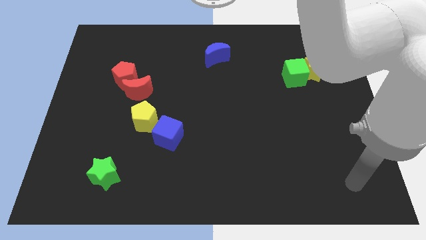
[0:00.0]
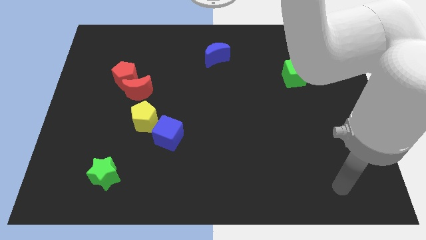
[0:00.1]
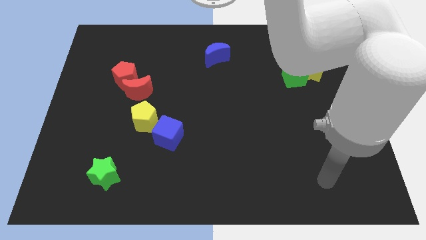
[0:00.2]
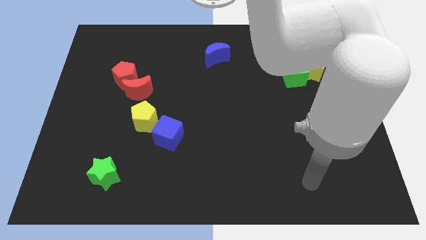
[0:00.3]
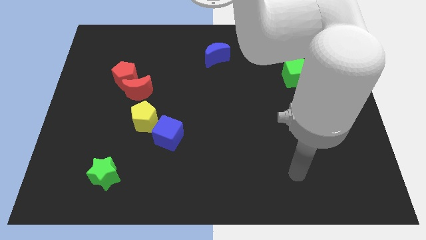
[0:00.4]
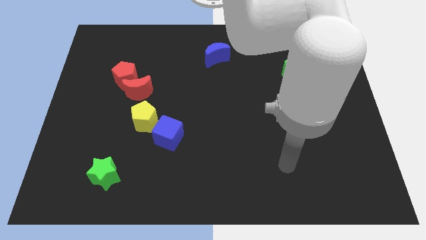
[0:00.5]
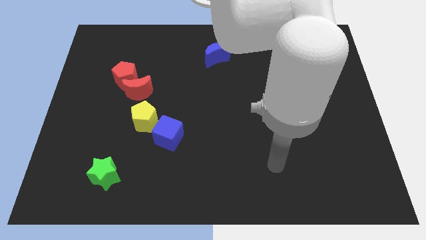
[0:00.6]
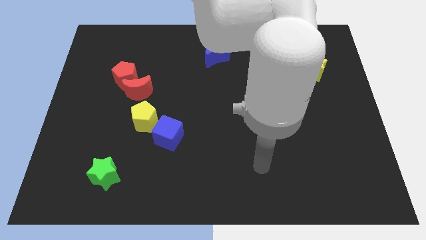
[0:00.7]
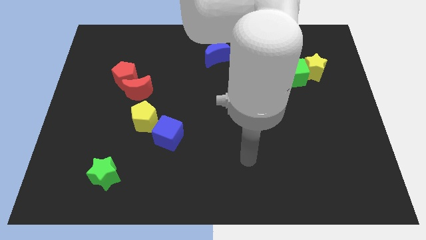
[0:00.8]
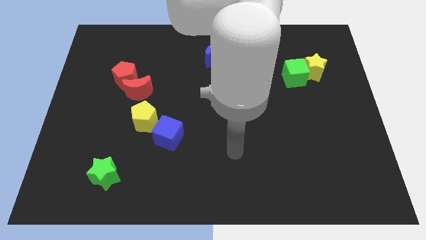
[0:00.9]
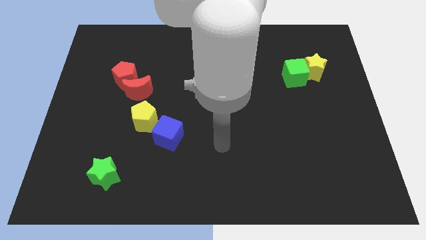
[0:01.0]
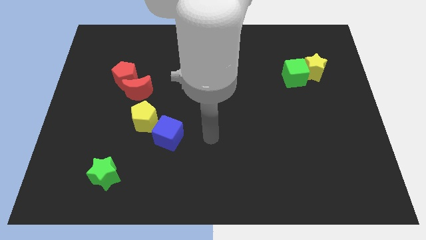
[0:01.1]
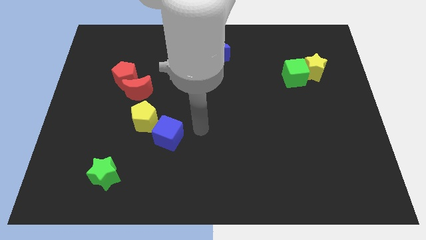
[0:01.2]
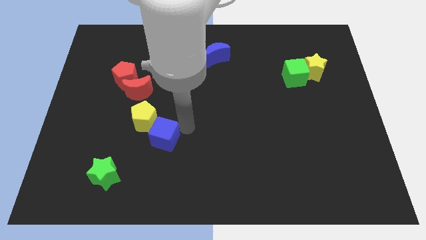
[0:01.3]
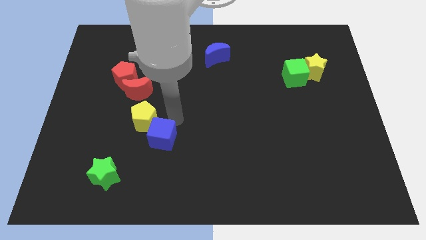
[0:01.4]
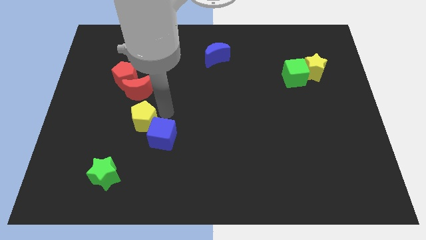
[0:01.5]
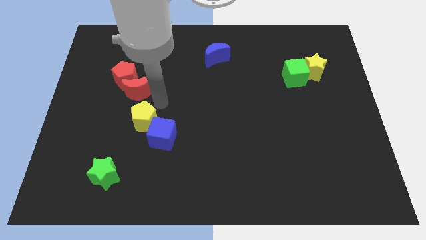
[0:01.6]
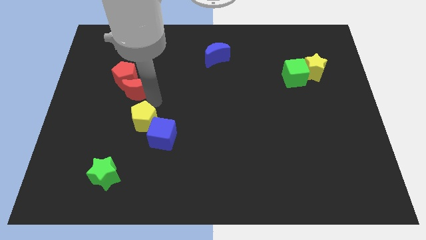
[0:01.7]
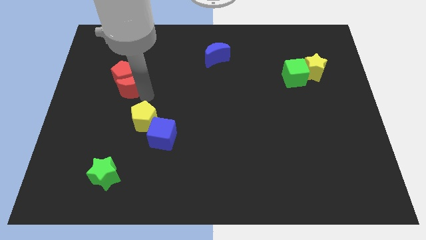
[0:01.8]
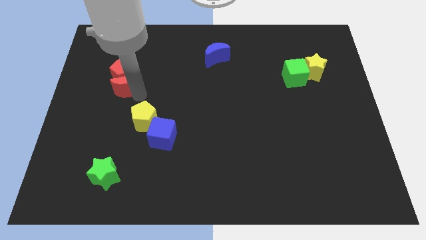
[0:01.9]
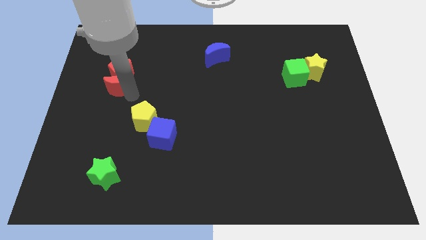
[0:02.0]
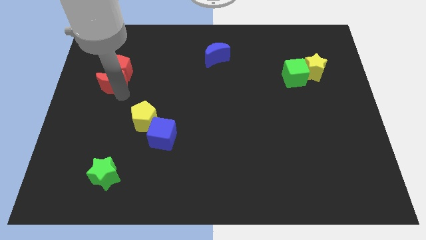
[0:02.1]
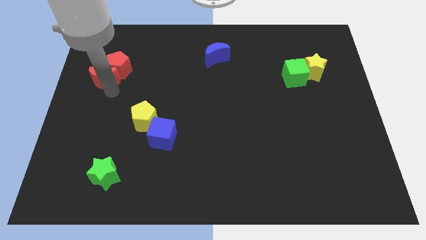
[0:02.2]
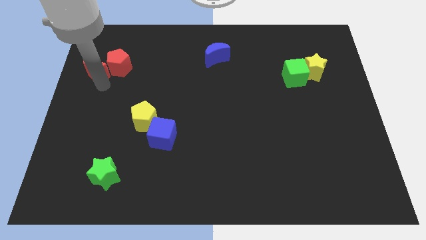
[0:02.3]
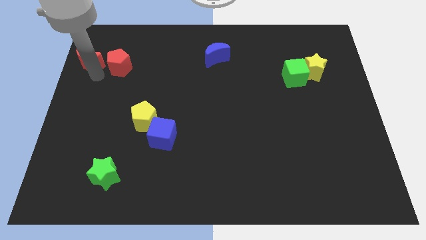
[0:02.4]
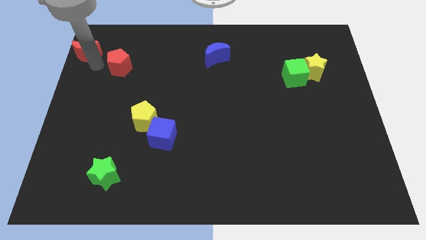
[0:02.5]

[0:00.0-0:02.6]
pull the red pentagon apart from the red moon

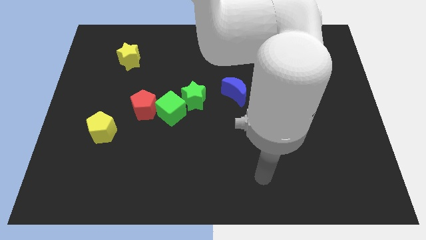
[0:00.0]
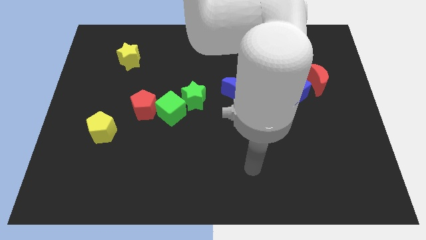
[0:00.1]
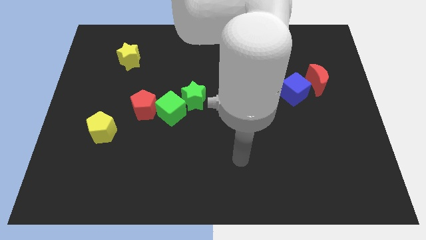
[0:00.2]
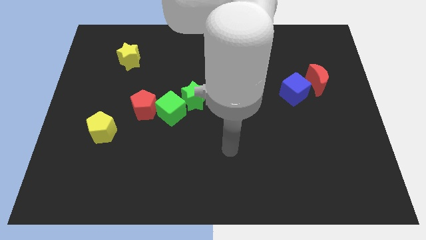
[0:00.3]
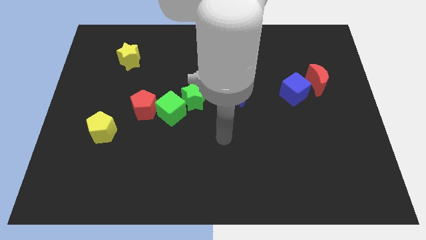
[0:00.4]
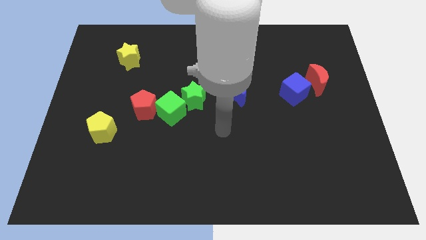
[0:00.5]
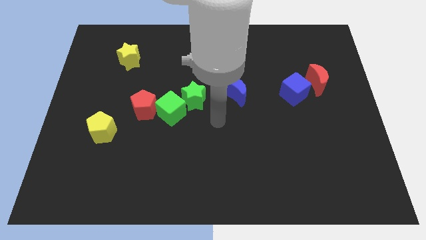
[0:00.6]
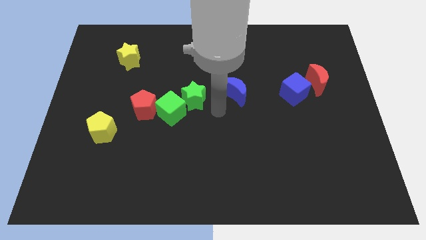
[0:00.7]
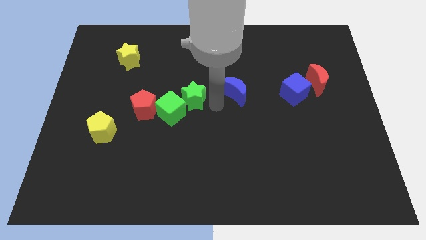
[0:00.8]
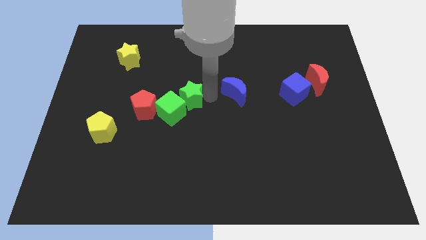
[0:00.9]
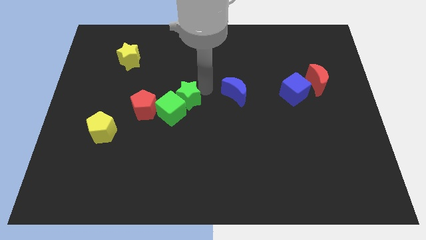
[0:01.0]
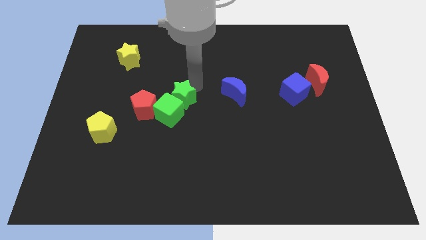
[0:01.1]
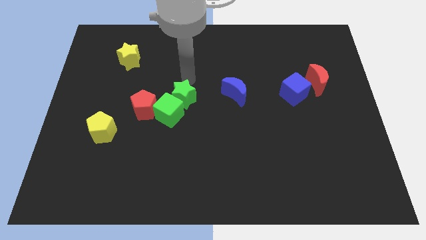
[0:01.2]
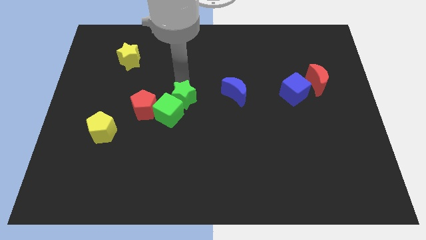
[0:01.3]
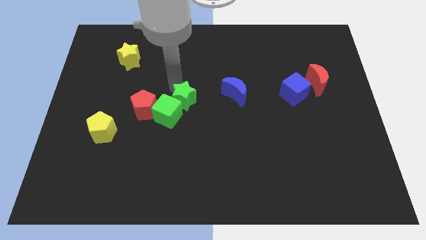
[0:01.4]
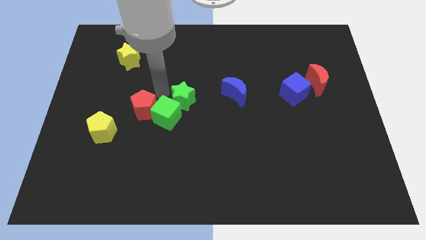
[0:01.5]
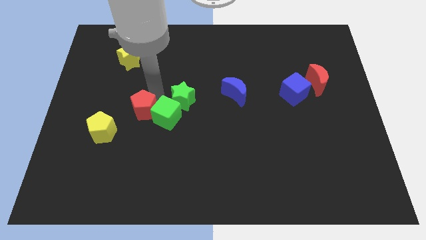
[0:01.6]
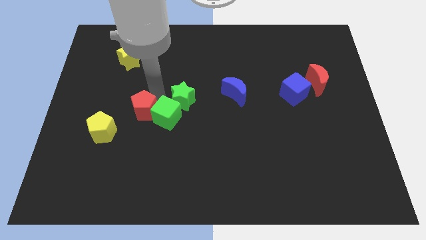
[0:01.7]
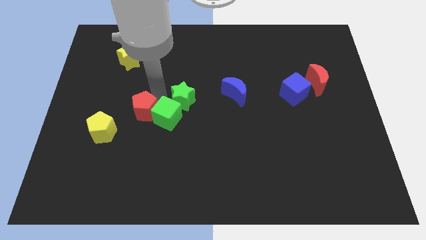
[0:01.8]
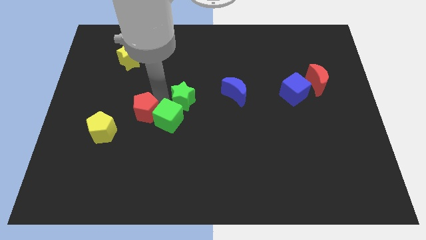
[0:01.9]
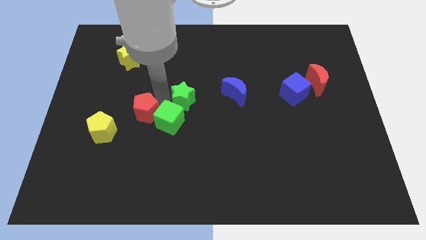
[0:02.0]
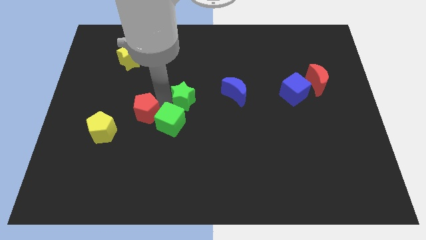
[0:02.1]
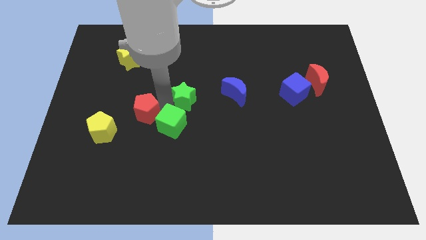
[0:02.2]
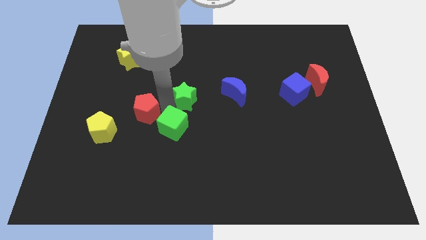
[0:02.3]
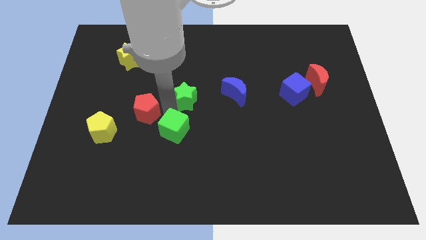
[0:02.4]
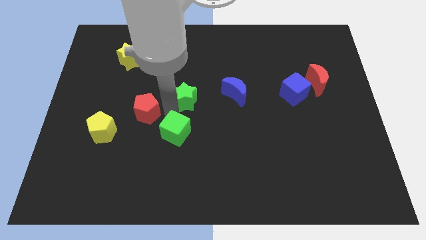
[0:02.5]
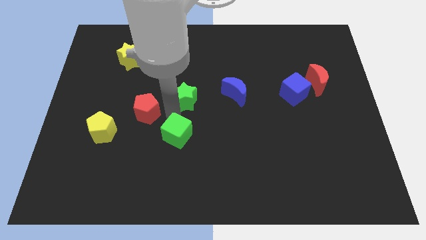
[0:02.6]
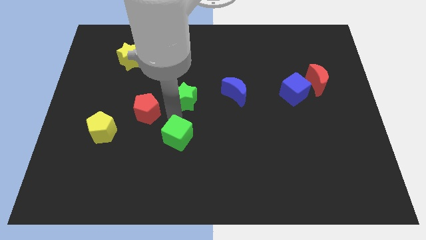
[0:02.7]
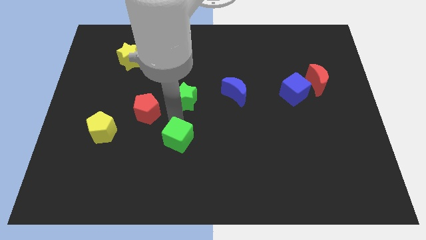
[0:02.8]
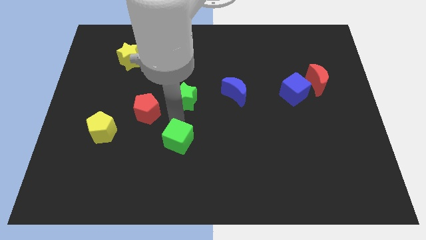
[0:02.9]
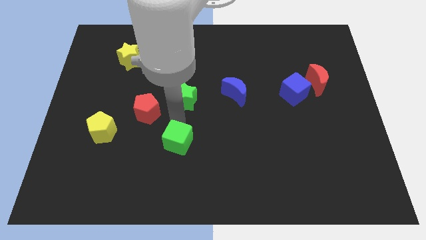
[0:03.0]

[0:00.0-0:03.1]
move the green cube away from the green star and red pentagon

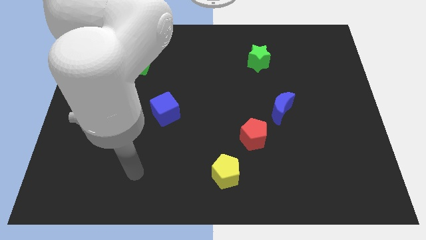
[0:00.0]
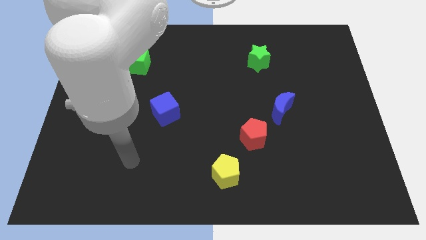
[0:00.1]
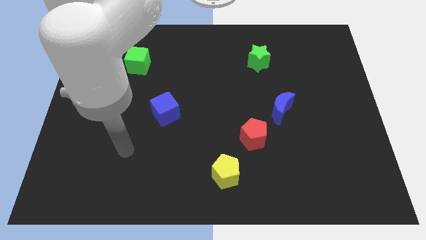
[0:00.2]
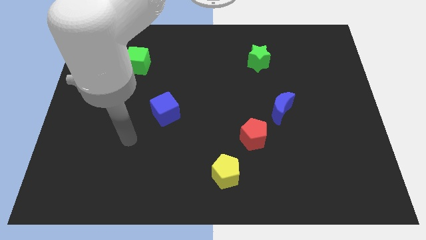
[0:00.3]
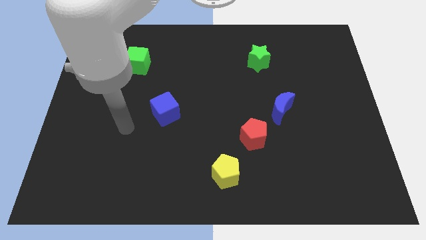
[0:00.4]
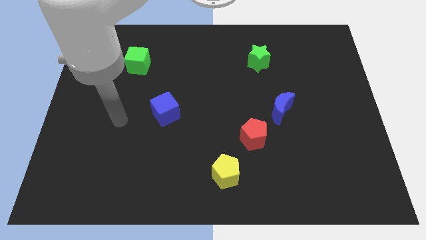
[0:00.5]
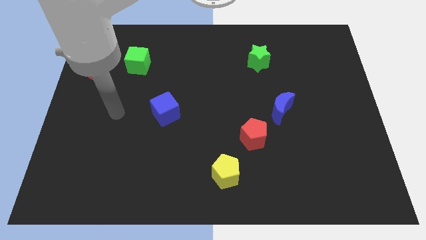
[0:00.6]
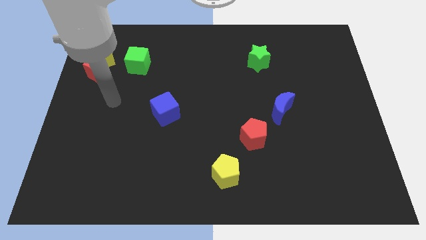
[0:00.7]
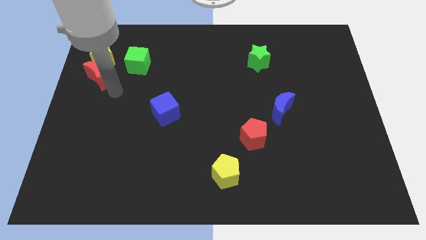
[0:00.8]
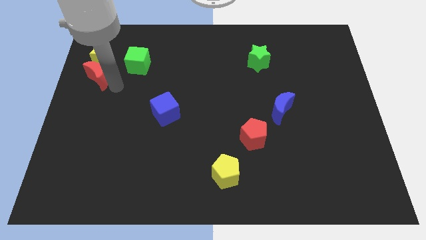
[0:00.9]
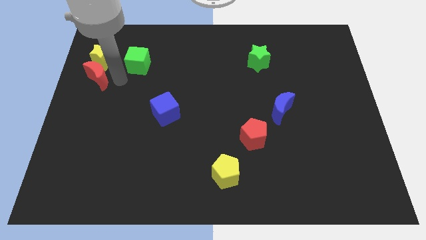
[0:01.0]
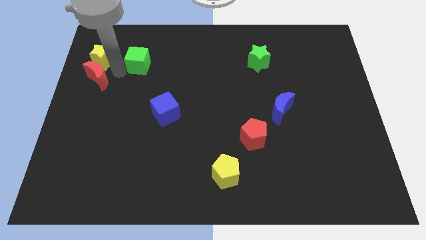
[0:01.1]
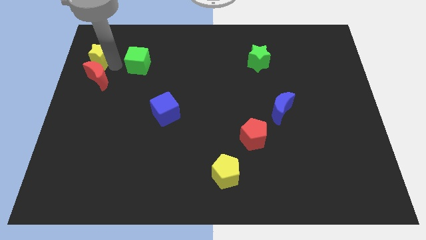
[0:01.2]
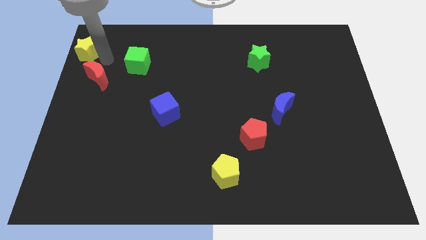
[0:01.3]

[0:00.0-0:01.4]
separate the red moon from the yellow star

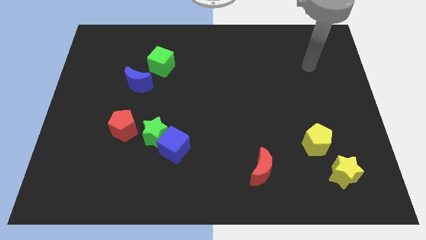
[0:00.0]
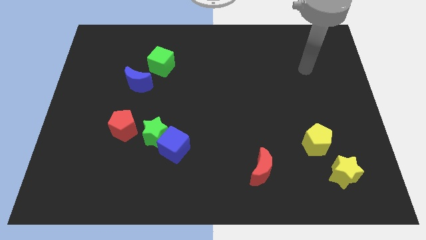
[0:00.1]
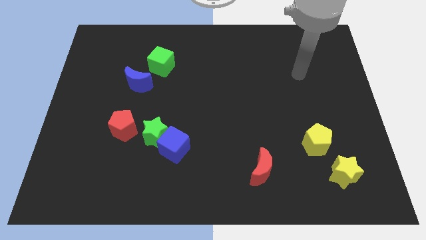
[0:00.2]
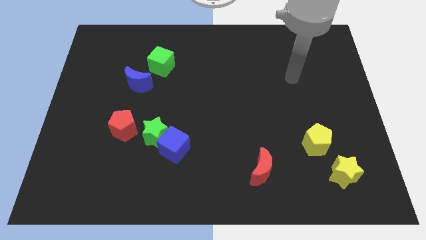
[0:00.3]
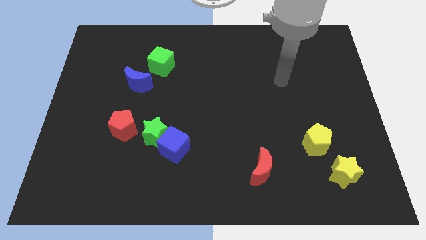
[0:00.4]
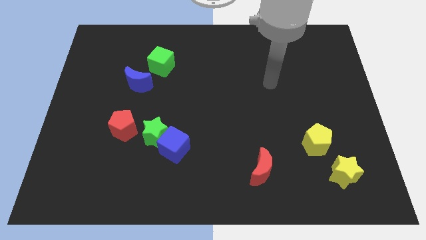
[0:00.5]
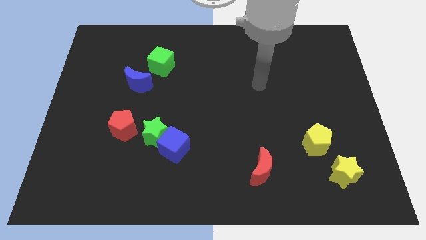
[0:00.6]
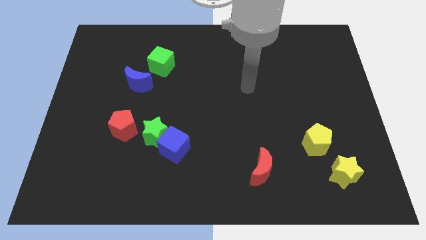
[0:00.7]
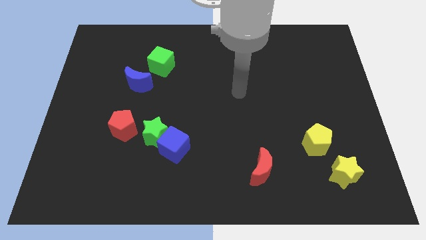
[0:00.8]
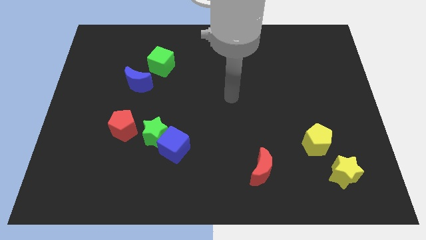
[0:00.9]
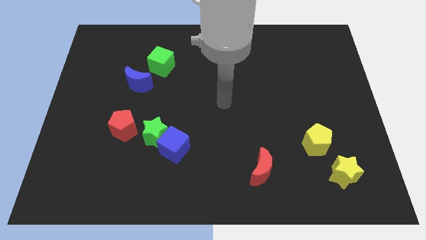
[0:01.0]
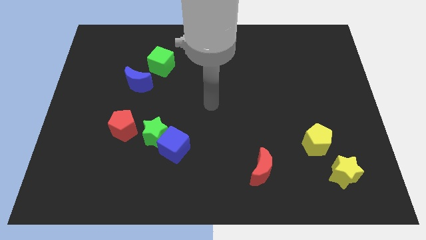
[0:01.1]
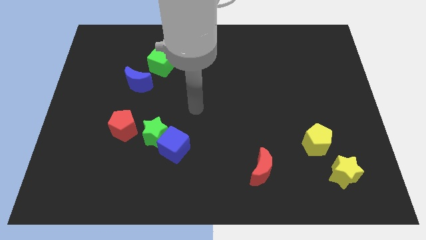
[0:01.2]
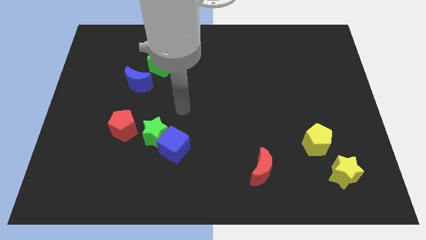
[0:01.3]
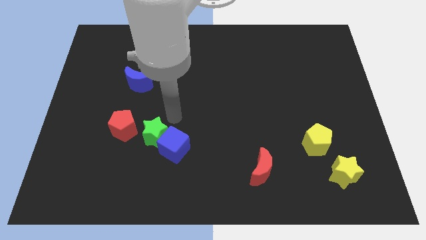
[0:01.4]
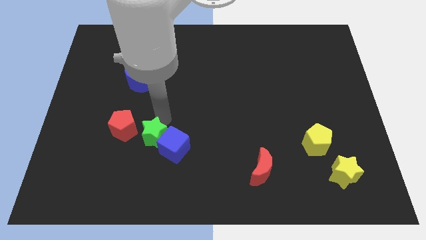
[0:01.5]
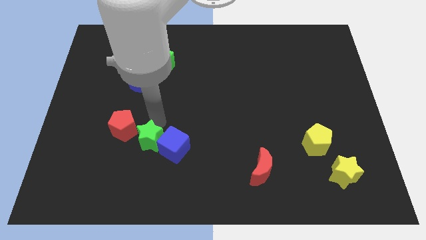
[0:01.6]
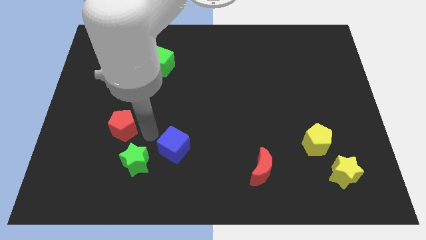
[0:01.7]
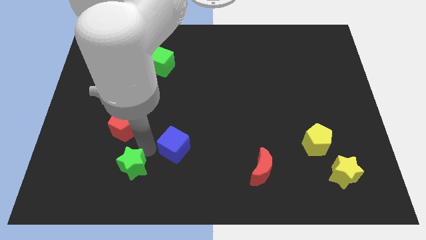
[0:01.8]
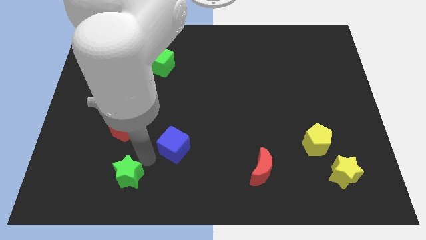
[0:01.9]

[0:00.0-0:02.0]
separate the blue cube from the green star

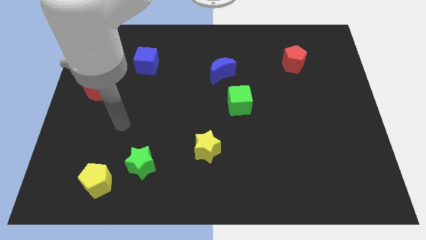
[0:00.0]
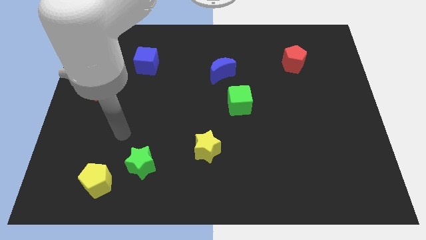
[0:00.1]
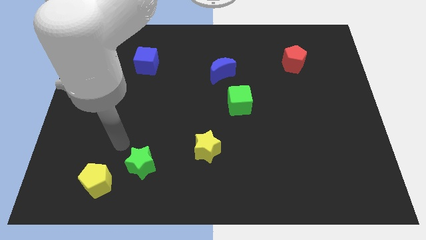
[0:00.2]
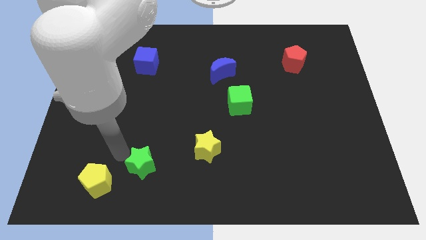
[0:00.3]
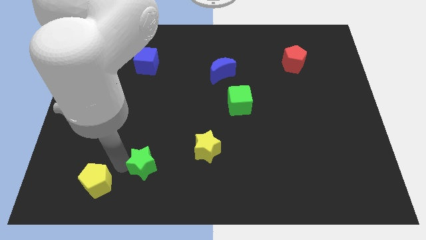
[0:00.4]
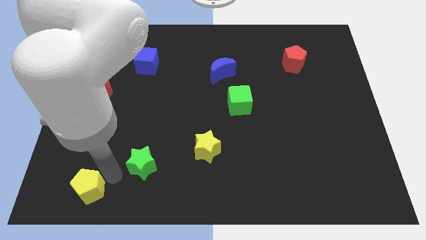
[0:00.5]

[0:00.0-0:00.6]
separate the green star from the yellow pentagon
